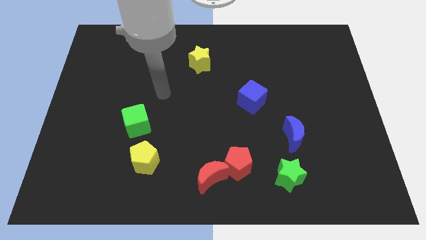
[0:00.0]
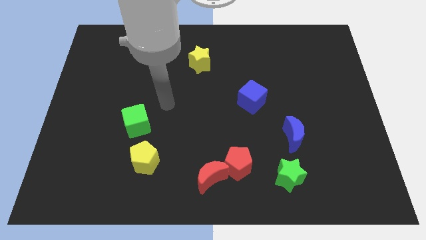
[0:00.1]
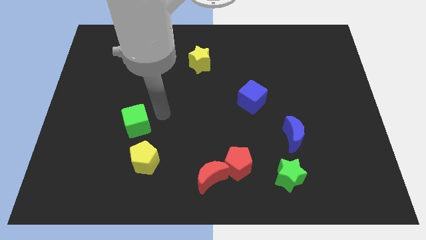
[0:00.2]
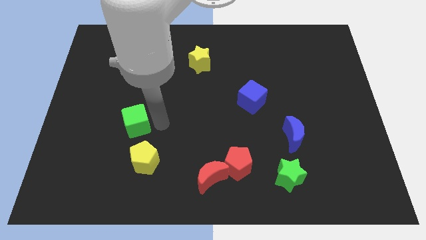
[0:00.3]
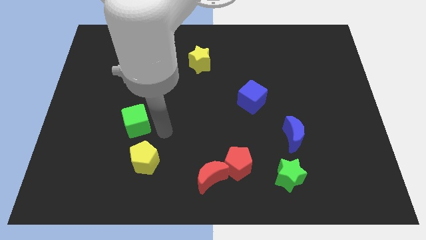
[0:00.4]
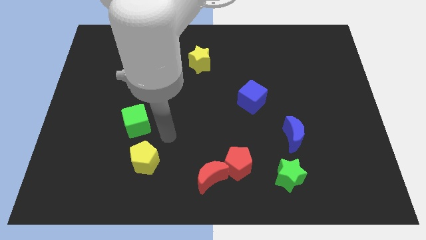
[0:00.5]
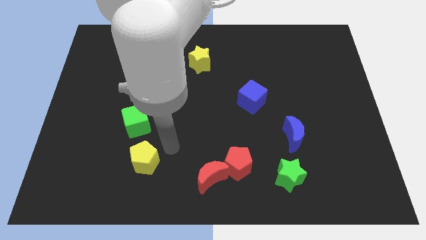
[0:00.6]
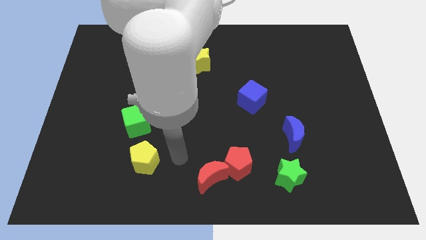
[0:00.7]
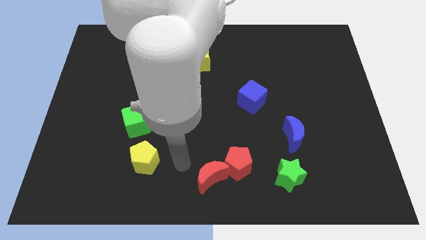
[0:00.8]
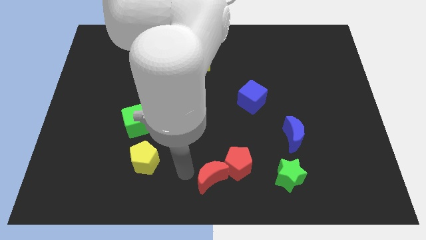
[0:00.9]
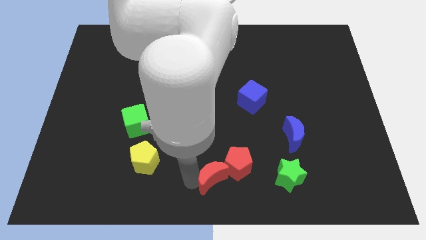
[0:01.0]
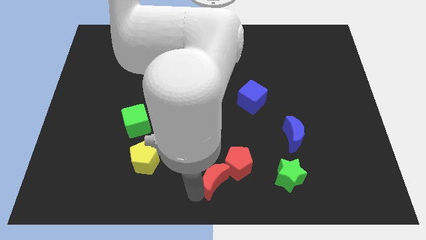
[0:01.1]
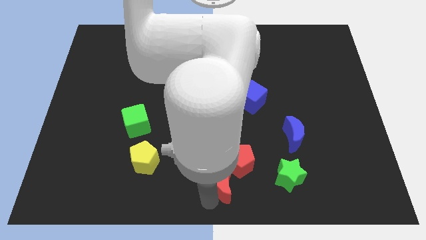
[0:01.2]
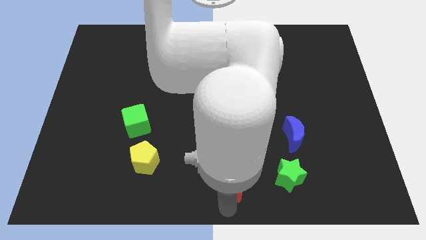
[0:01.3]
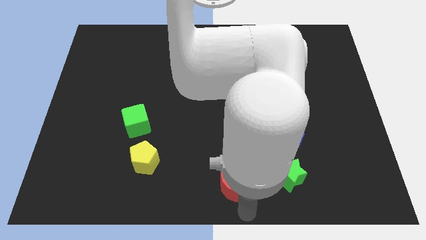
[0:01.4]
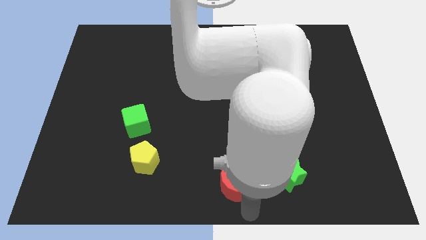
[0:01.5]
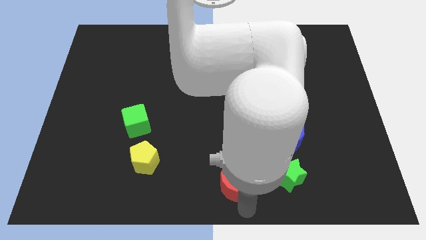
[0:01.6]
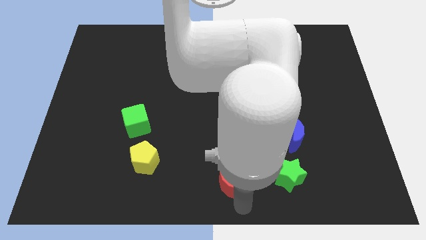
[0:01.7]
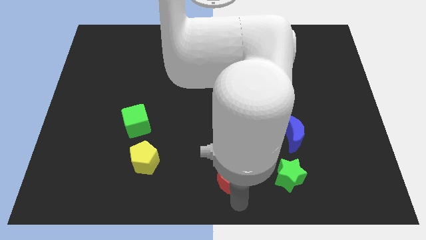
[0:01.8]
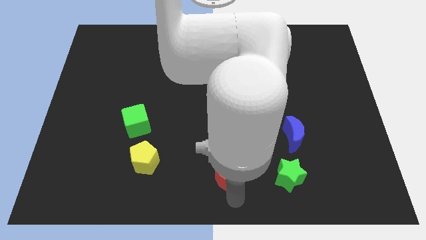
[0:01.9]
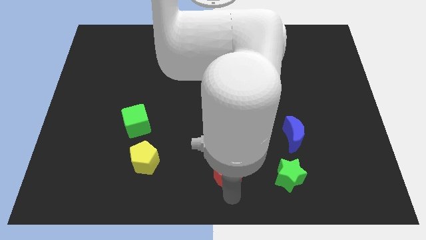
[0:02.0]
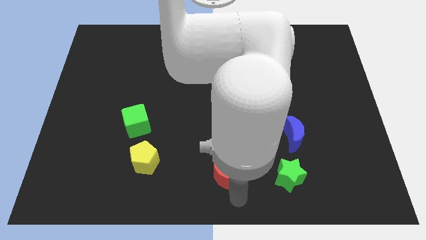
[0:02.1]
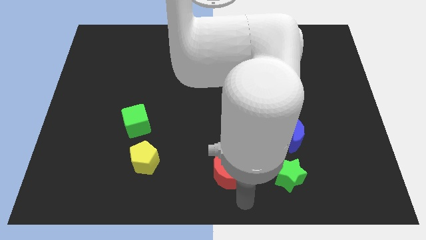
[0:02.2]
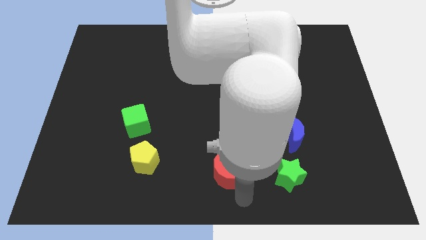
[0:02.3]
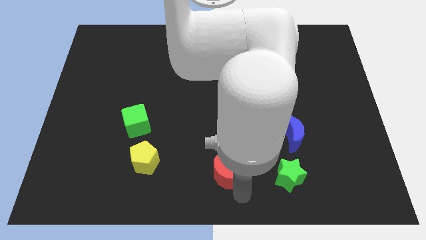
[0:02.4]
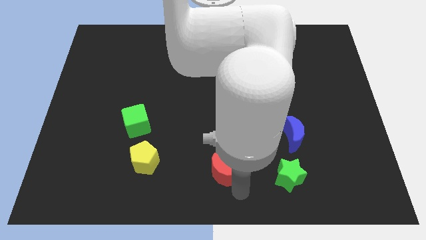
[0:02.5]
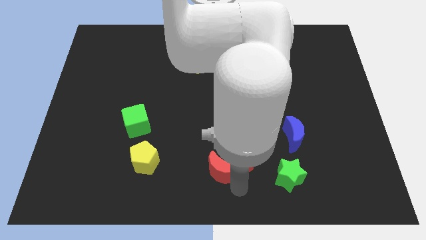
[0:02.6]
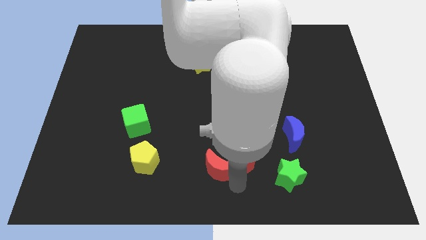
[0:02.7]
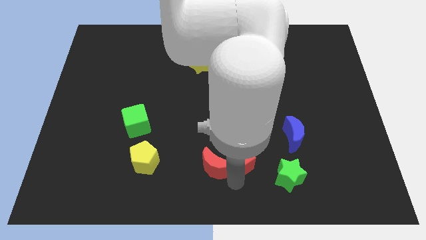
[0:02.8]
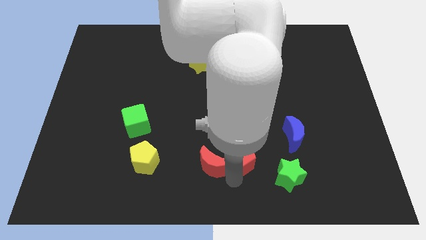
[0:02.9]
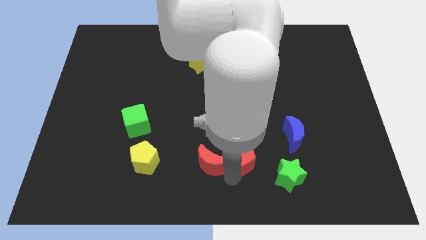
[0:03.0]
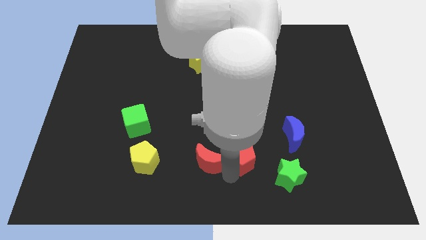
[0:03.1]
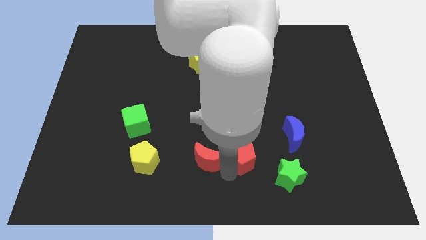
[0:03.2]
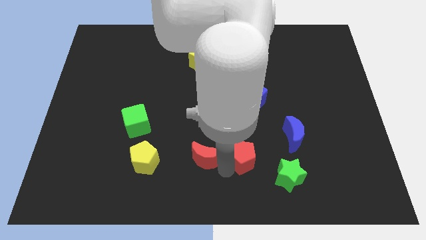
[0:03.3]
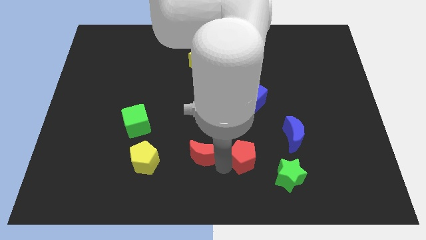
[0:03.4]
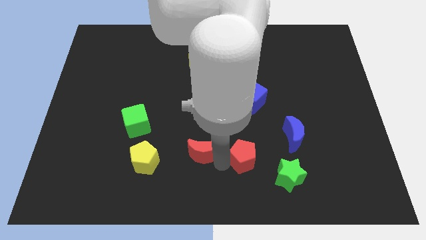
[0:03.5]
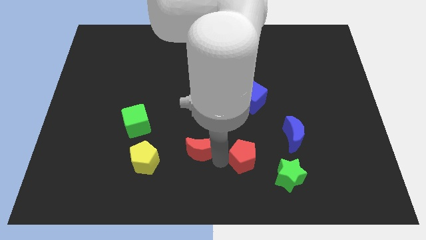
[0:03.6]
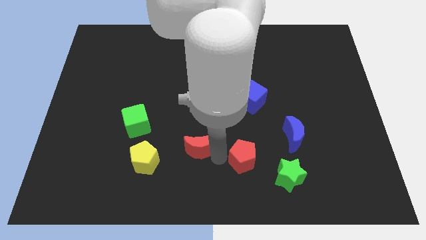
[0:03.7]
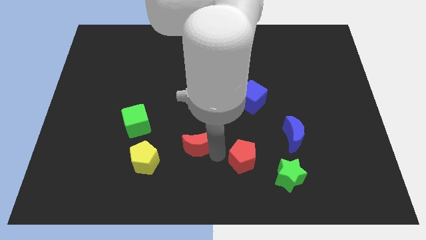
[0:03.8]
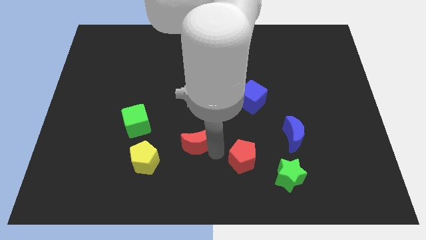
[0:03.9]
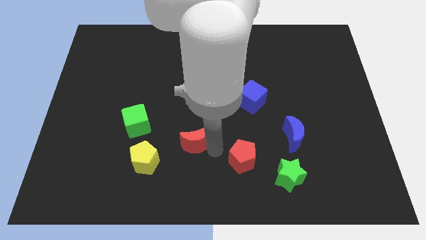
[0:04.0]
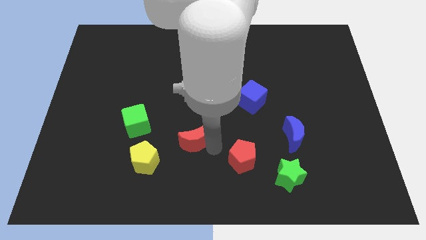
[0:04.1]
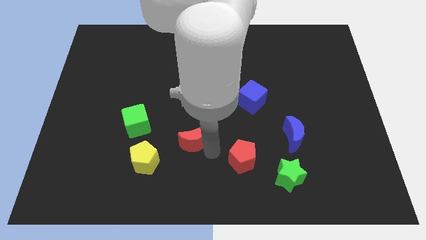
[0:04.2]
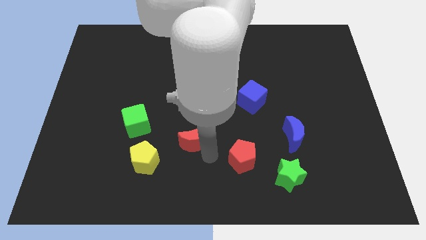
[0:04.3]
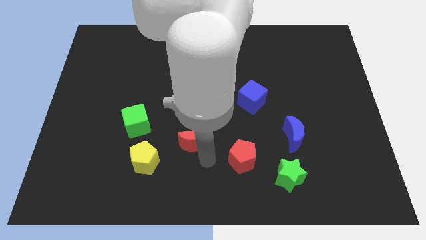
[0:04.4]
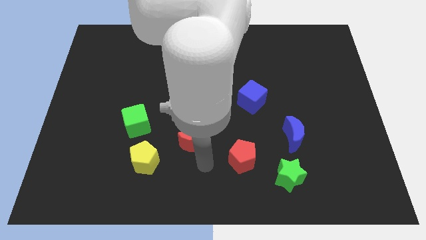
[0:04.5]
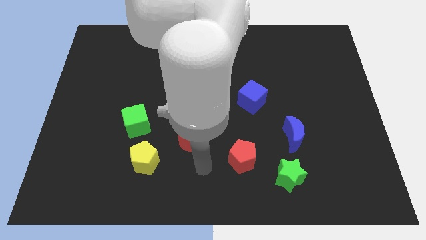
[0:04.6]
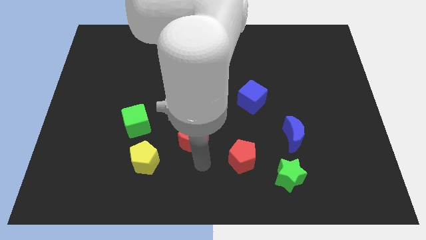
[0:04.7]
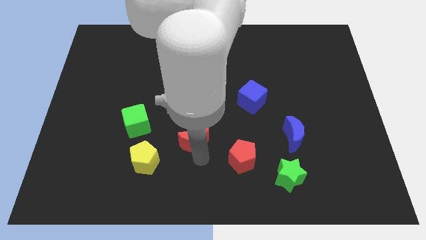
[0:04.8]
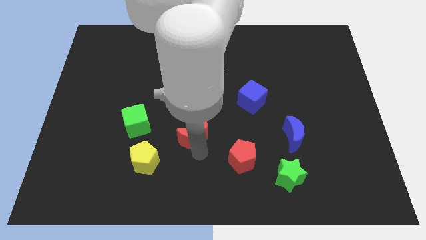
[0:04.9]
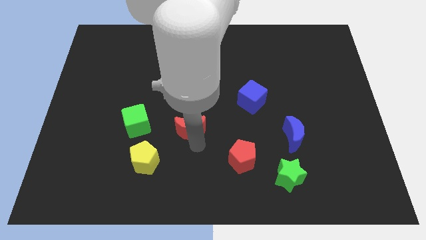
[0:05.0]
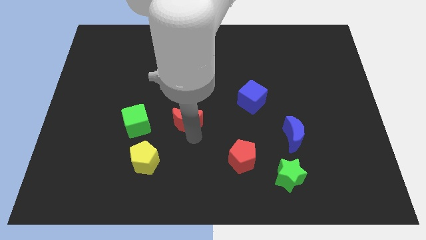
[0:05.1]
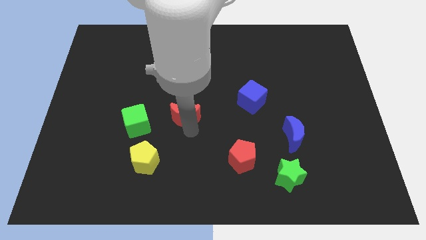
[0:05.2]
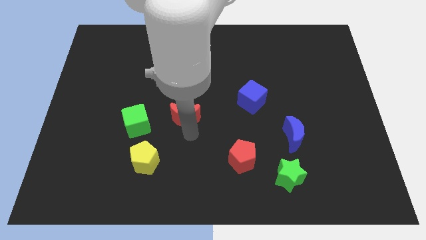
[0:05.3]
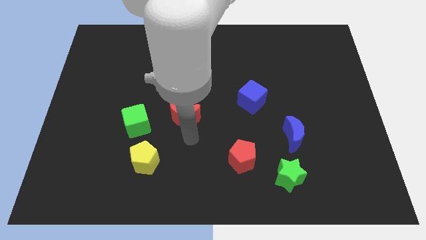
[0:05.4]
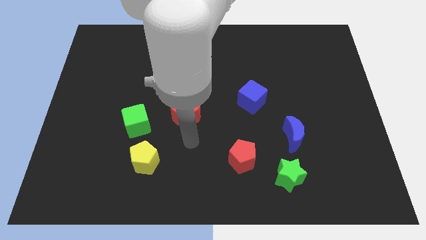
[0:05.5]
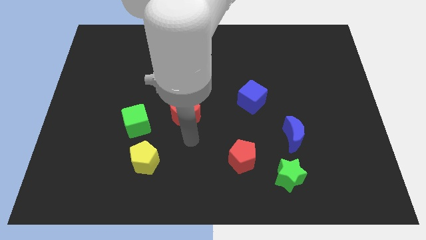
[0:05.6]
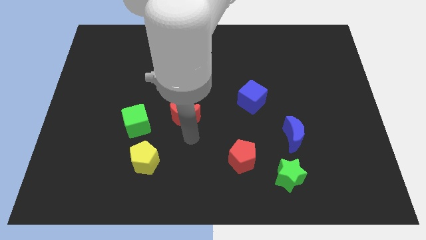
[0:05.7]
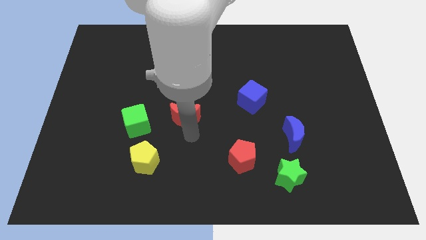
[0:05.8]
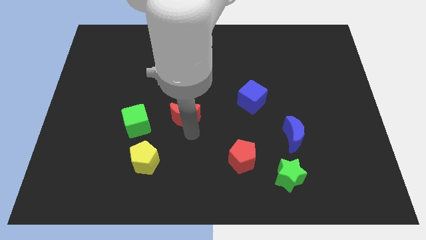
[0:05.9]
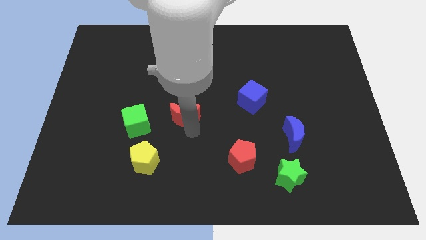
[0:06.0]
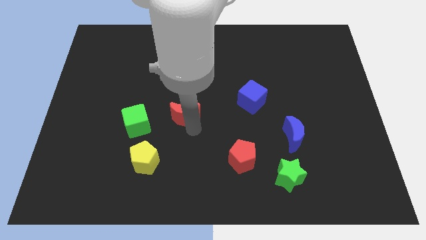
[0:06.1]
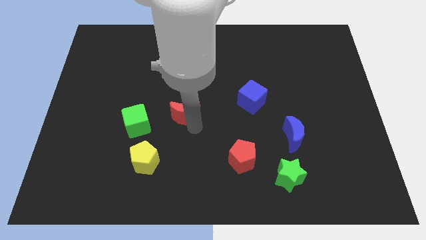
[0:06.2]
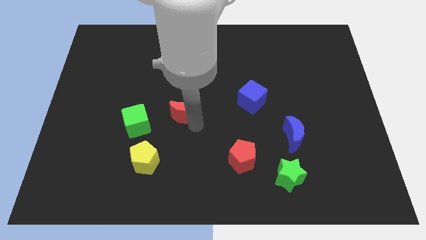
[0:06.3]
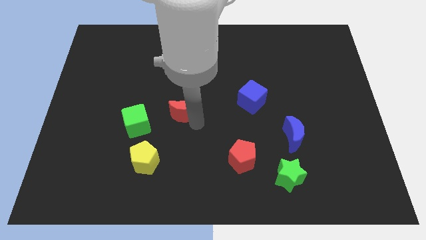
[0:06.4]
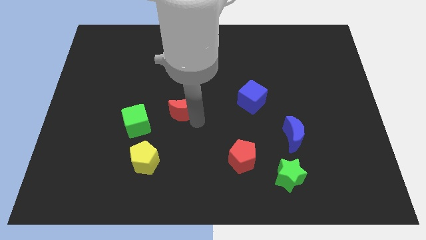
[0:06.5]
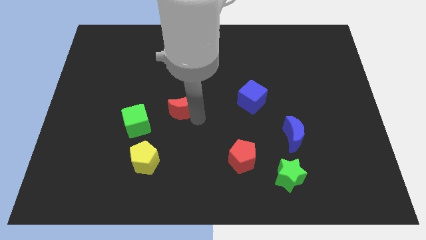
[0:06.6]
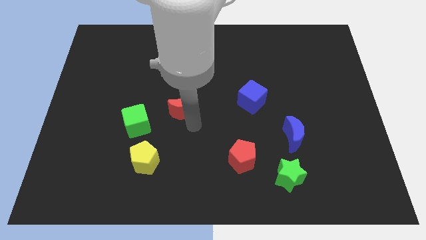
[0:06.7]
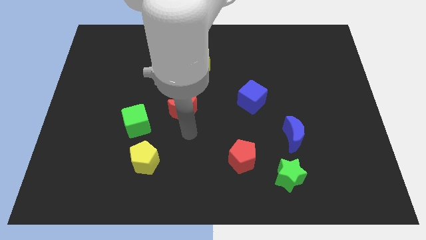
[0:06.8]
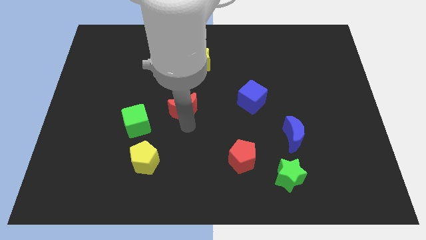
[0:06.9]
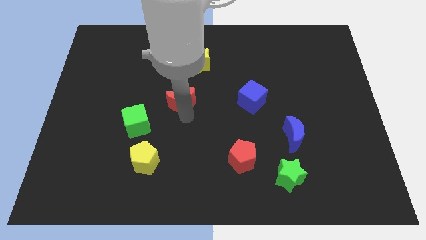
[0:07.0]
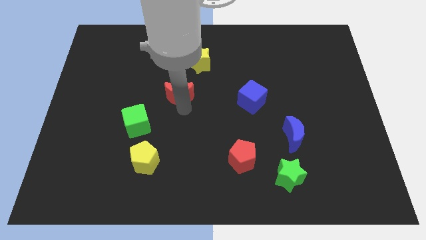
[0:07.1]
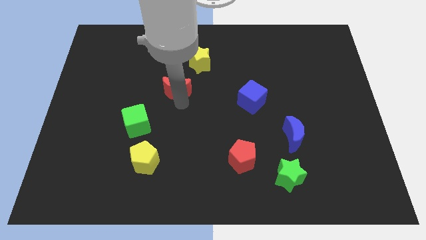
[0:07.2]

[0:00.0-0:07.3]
slide the red moon to the bottom left of the yellow star
